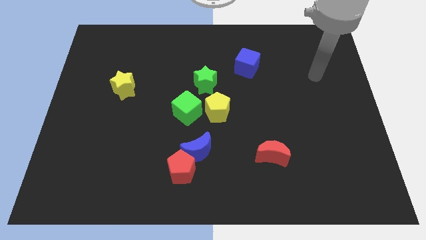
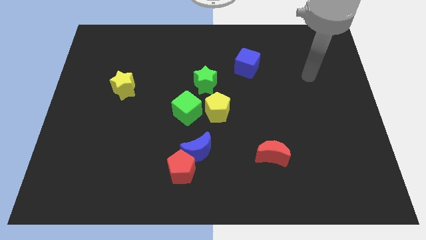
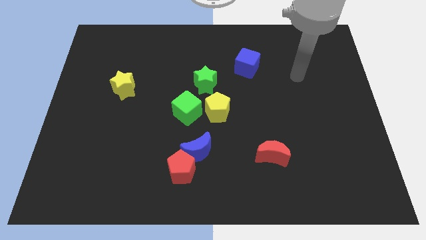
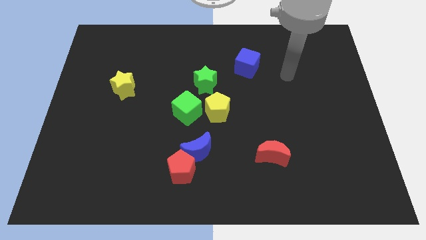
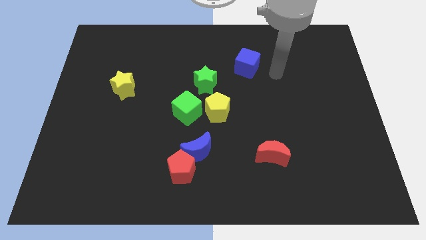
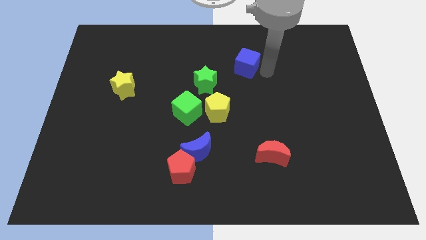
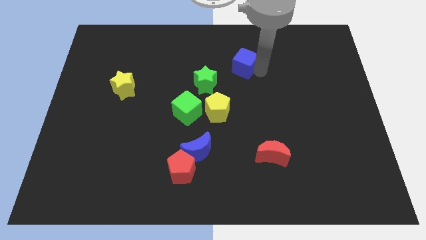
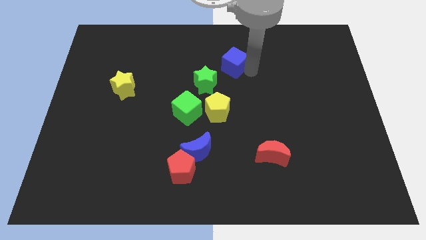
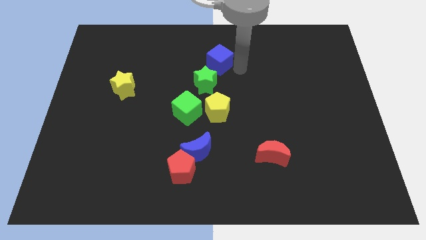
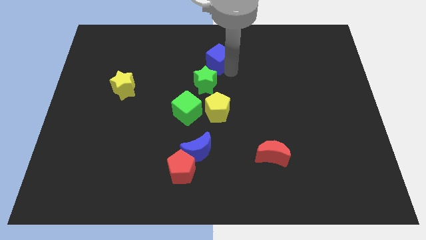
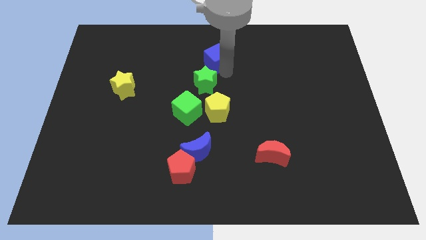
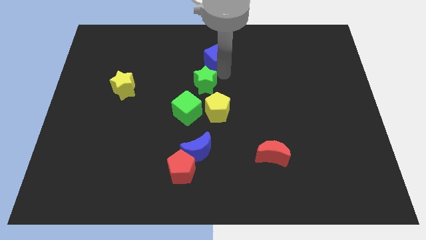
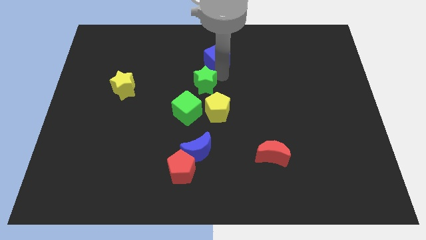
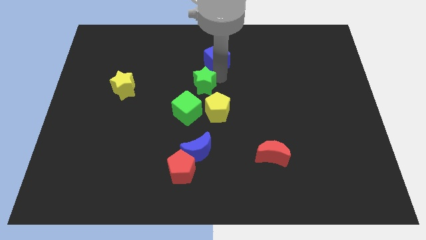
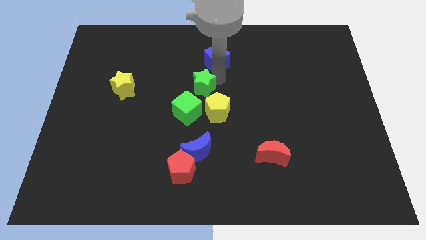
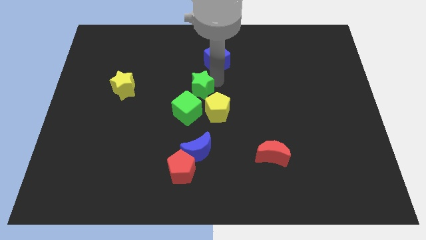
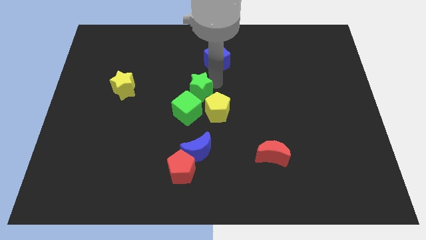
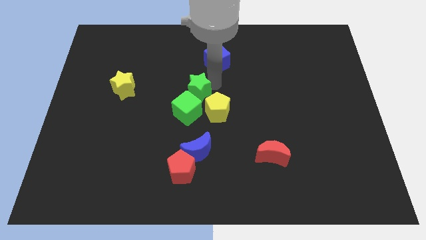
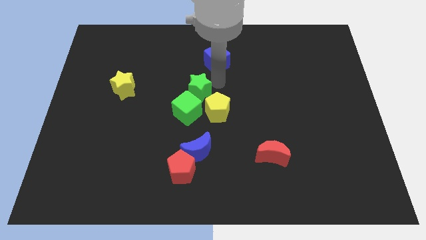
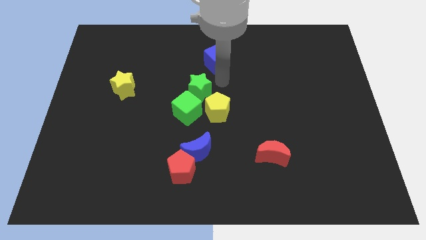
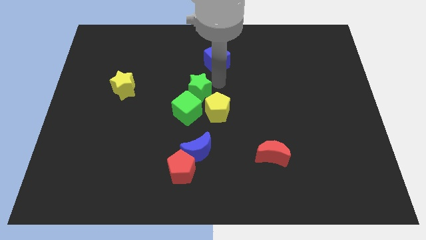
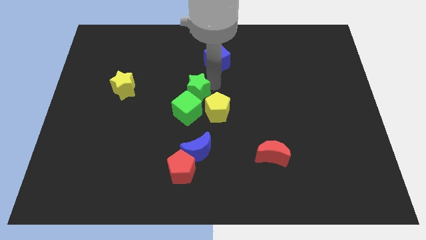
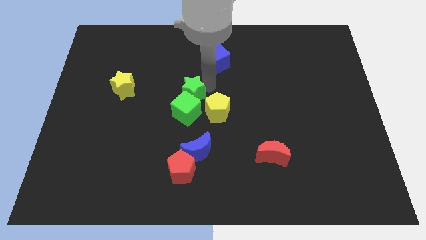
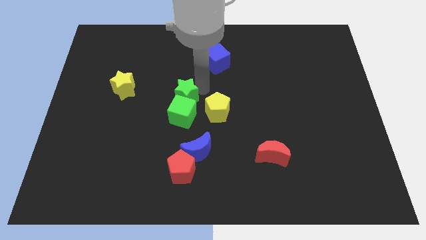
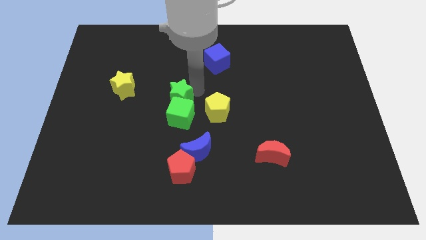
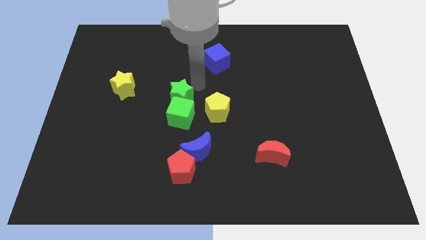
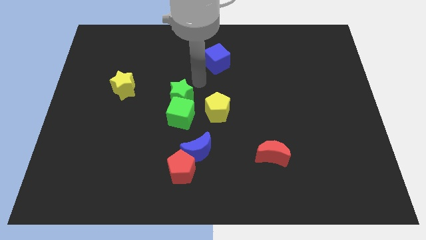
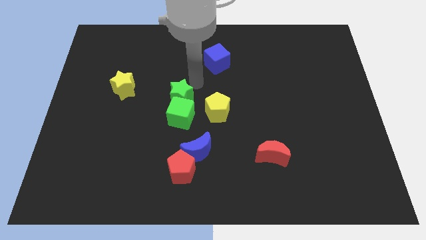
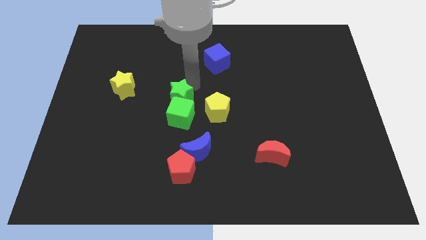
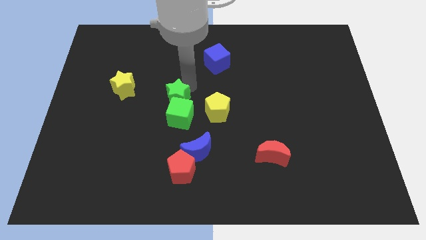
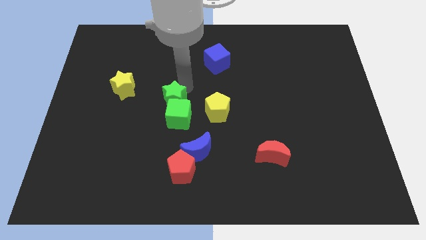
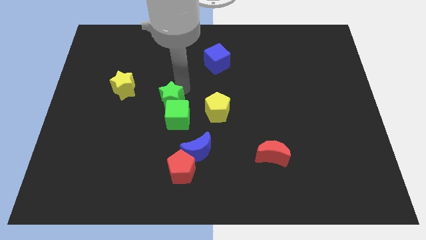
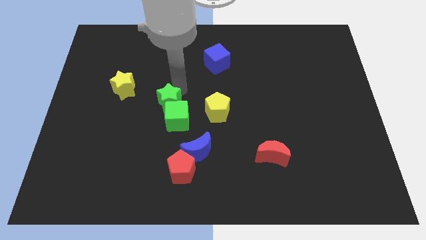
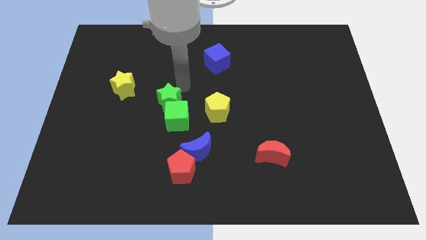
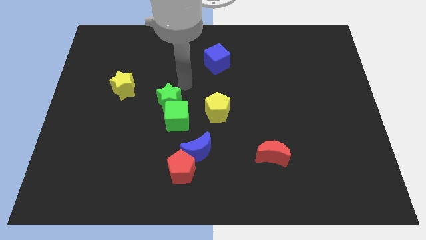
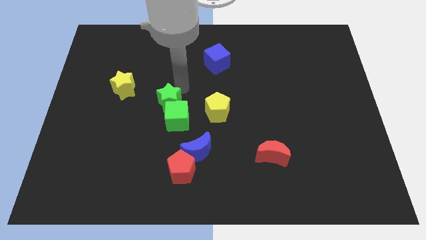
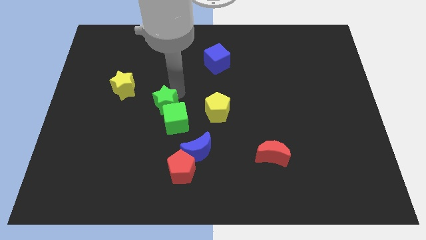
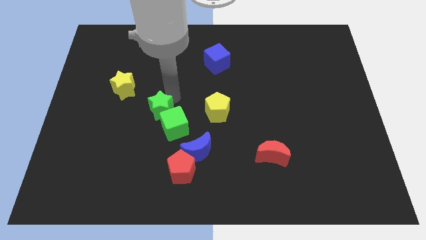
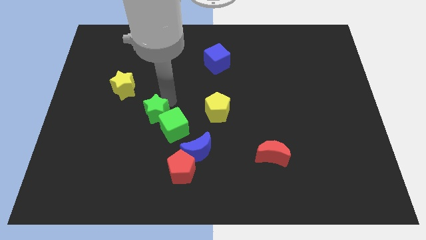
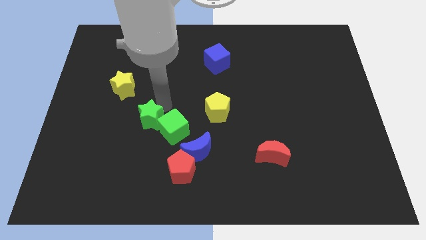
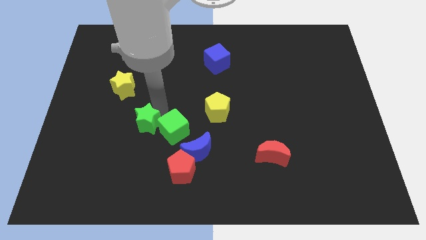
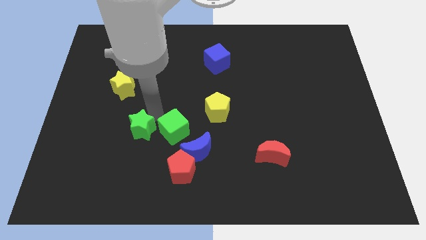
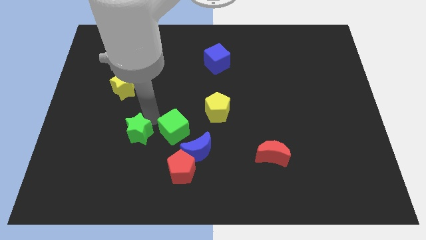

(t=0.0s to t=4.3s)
move the green star down and to the left

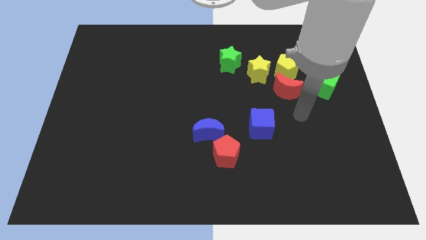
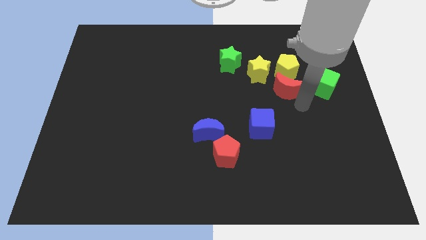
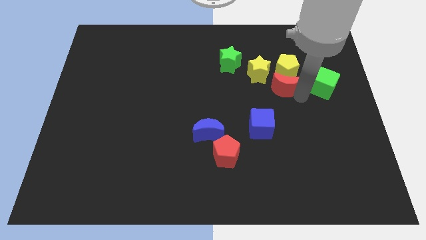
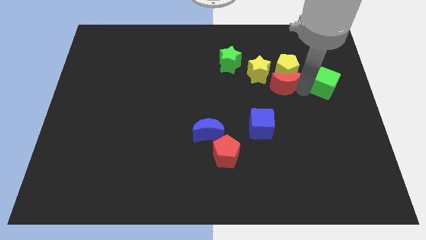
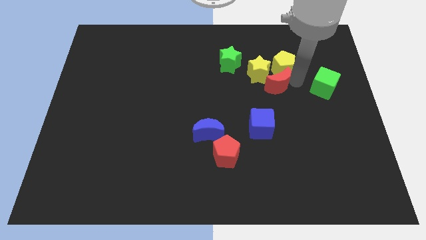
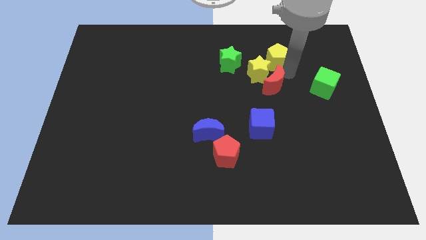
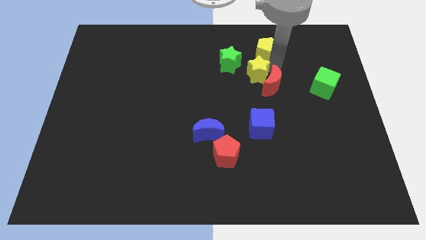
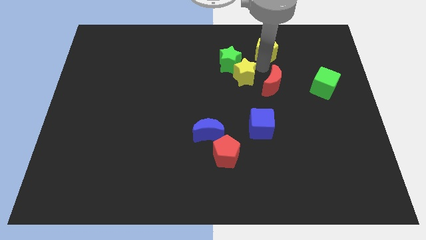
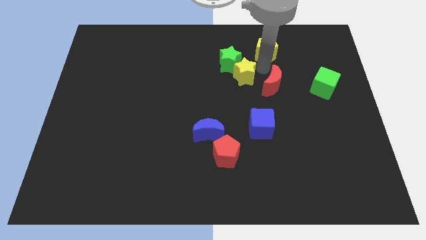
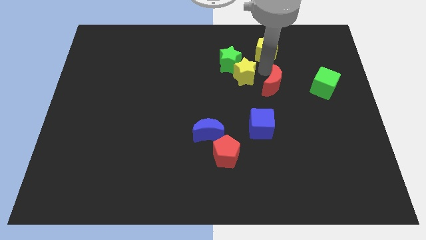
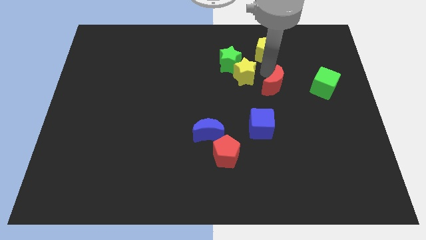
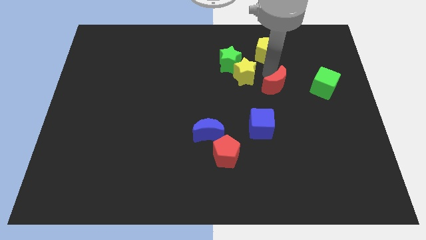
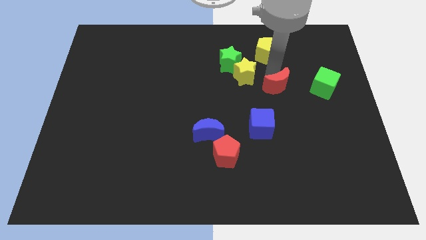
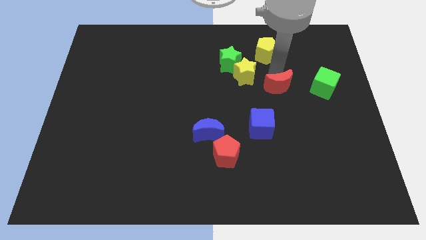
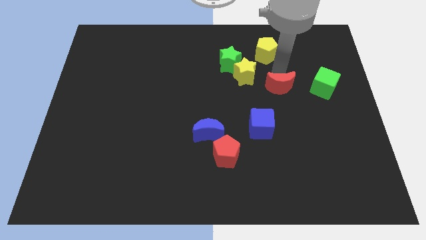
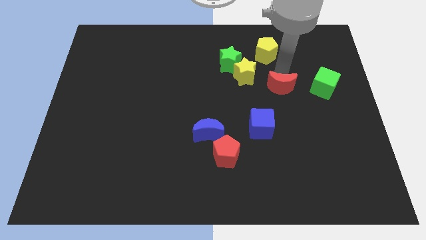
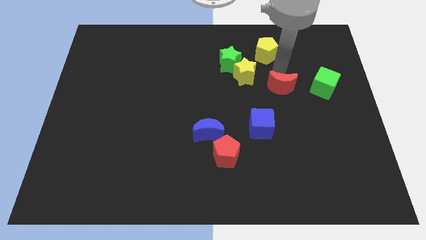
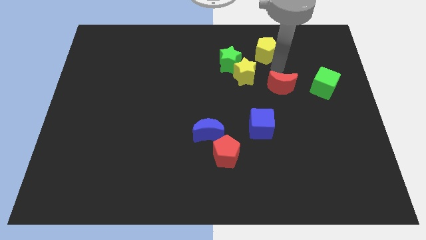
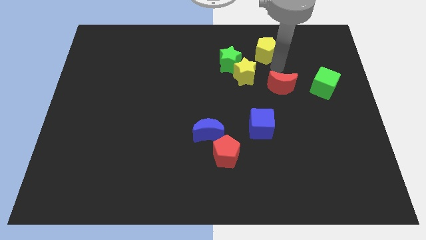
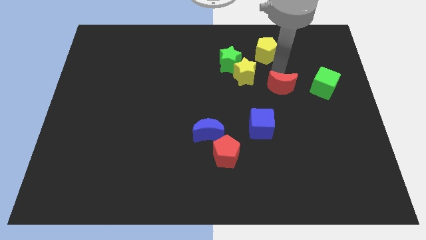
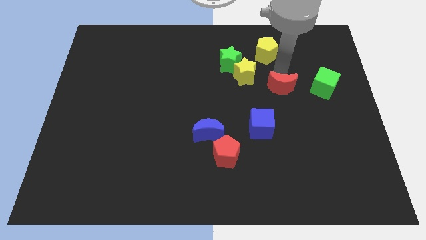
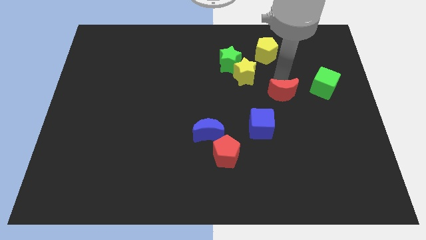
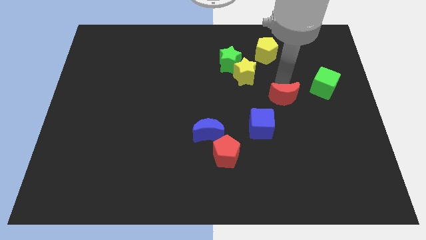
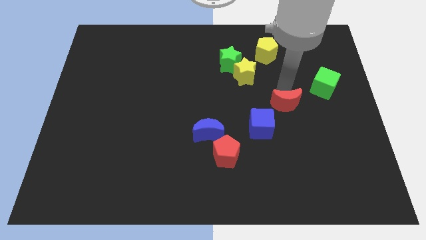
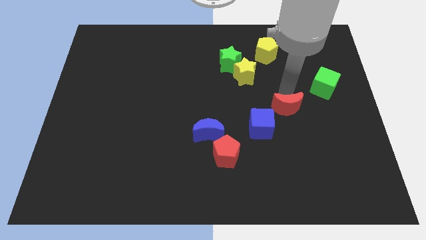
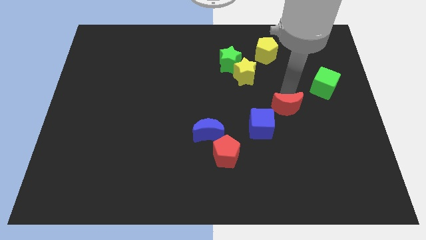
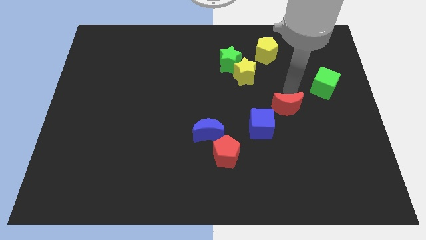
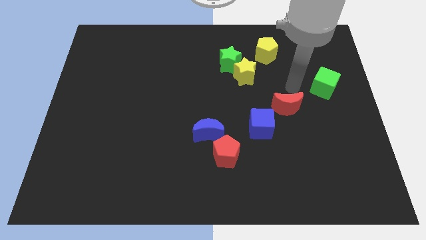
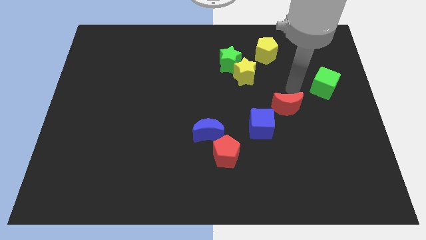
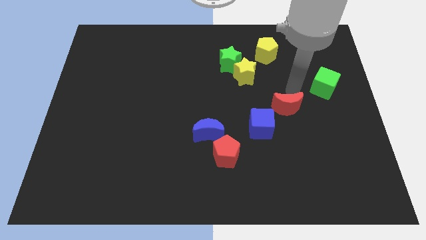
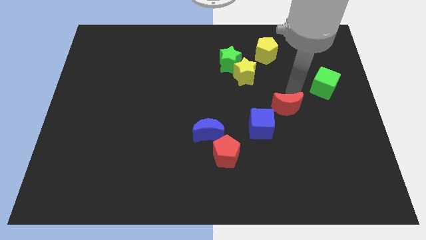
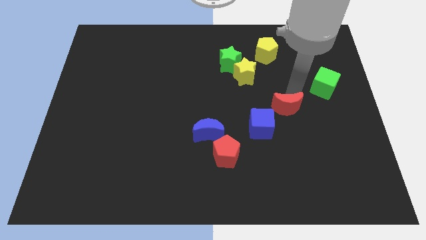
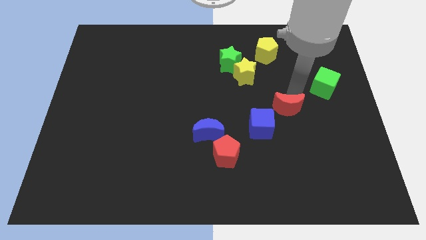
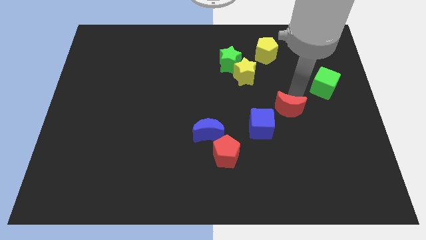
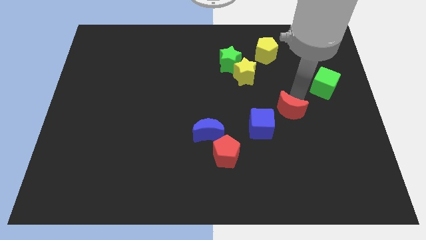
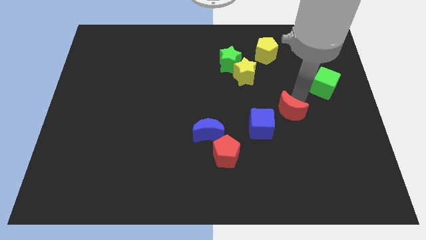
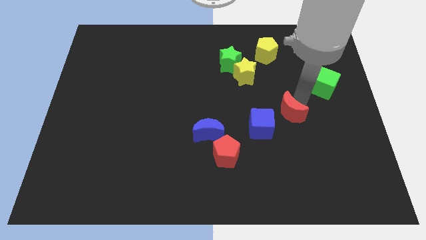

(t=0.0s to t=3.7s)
move the red moon a little downwards

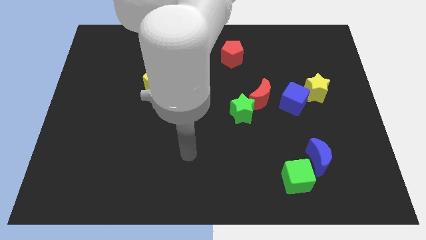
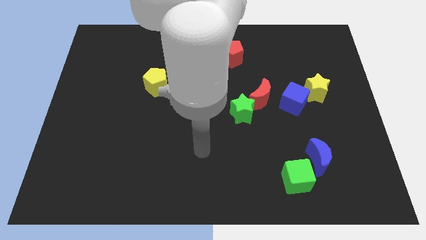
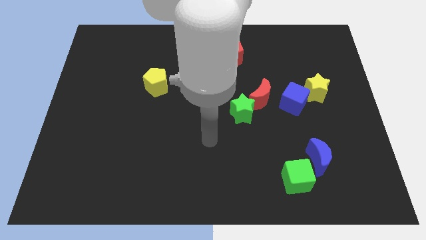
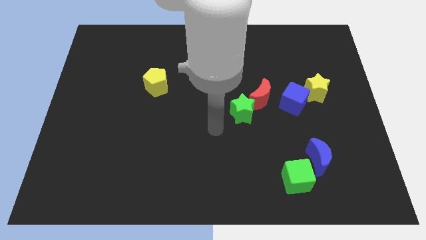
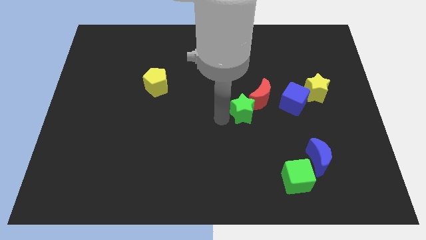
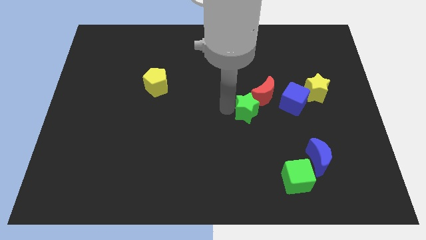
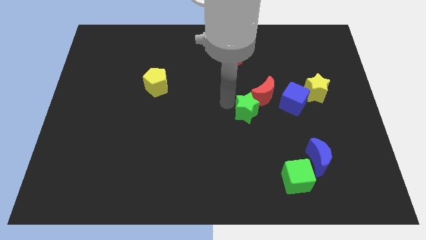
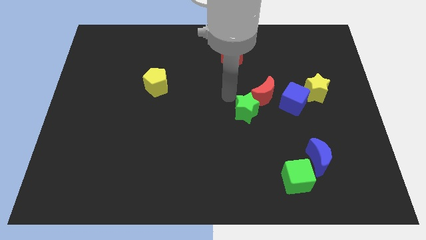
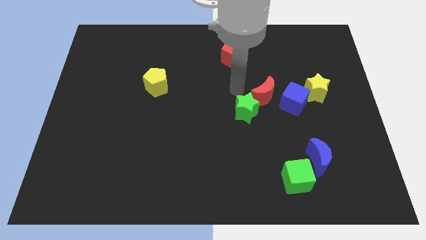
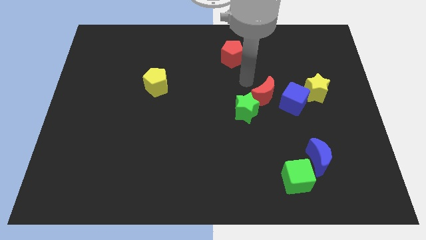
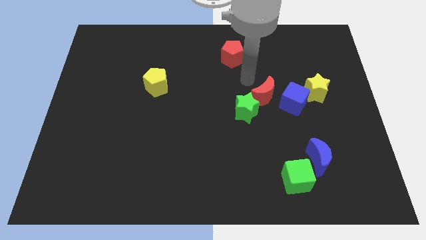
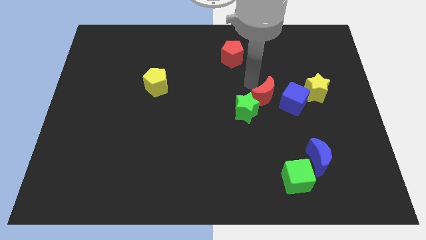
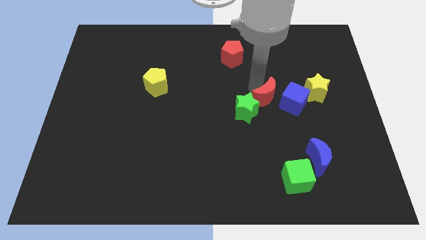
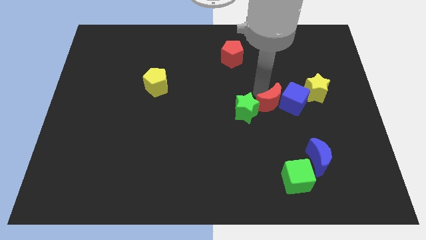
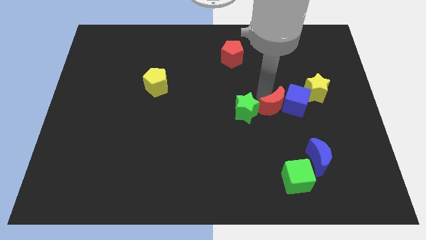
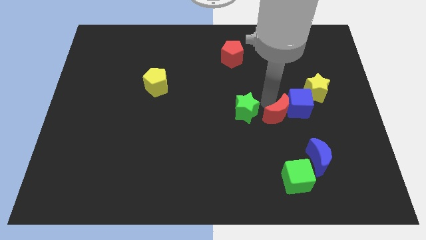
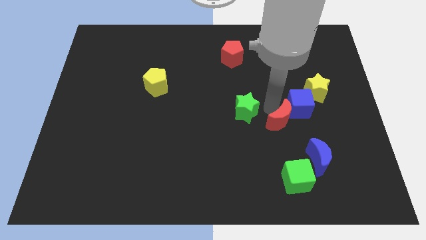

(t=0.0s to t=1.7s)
slightly move the red moon down and right diagonally
